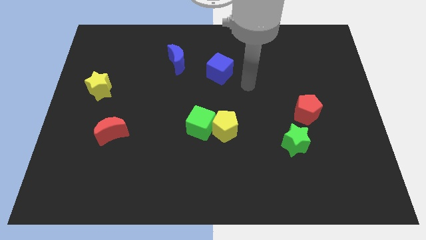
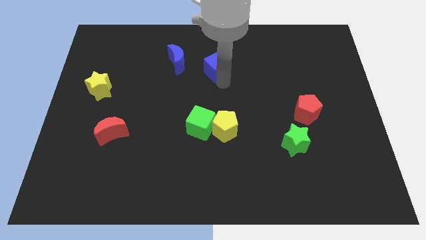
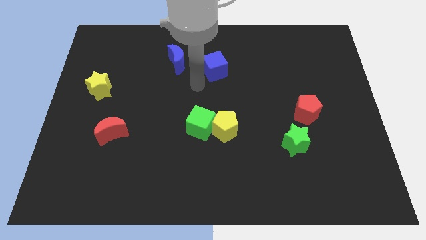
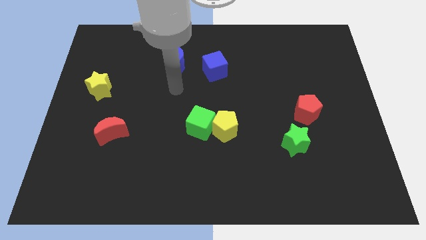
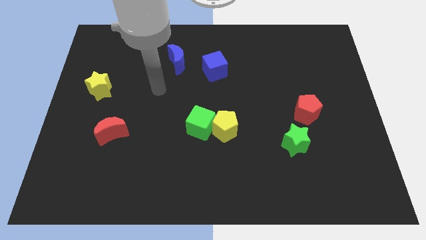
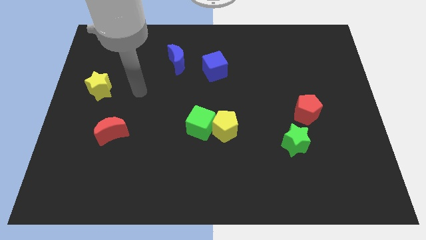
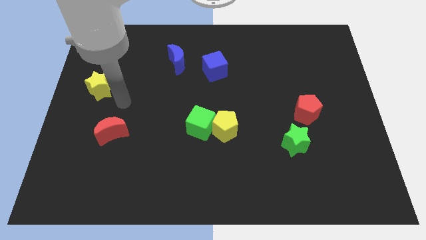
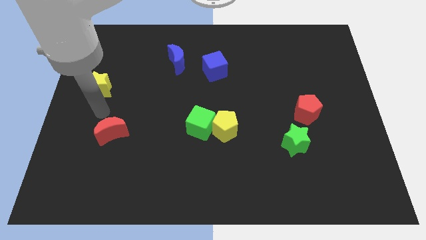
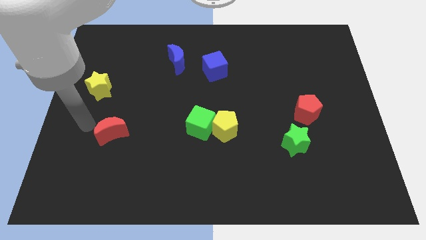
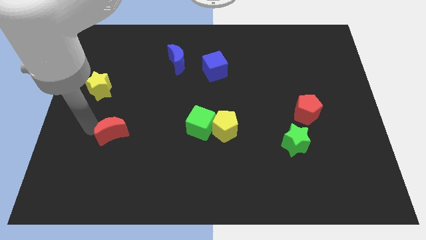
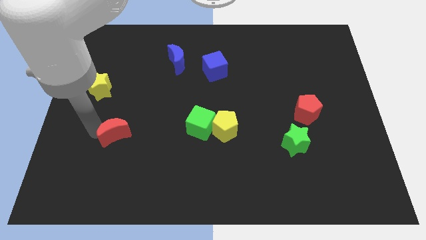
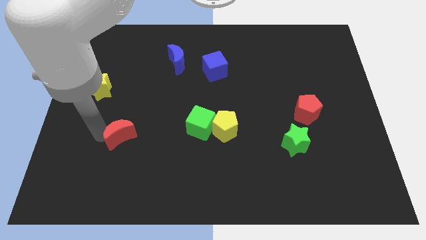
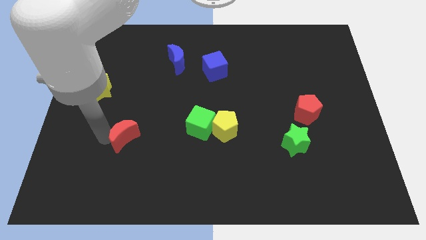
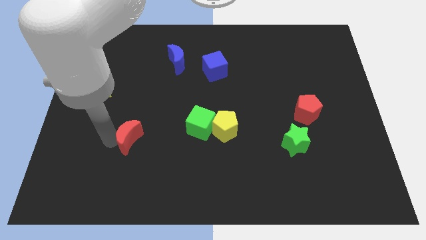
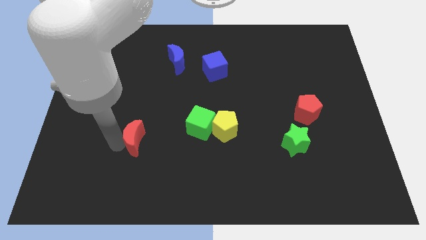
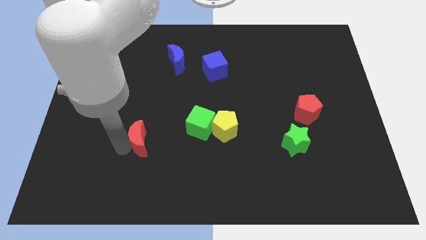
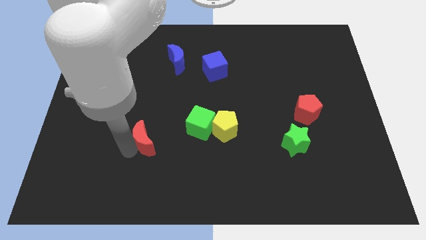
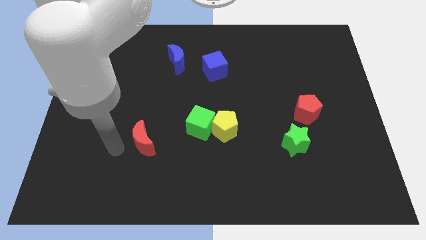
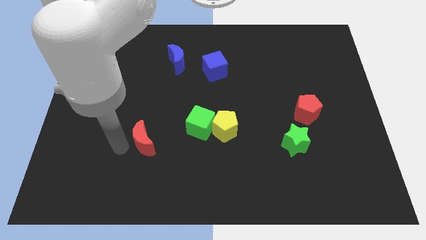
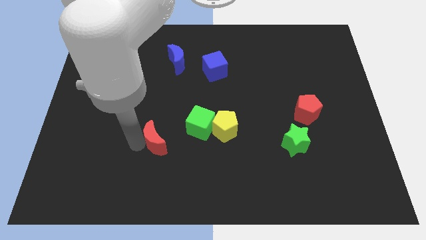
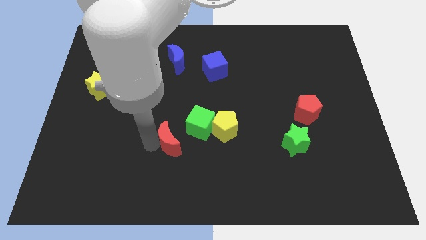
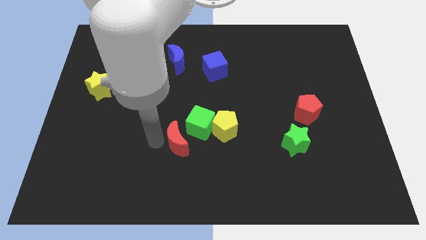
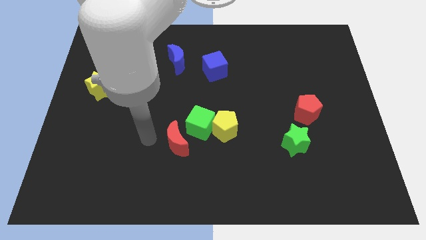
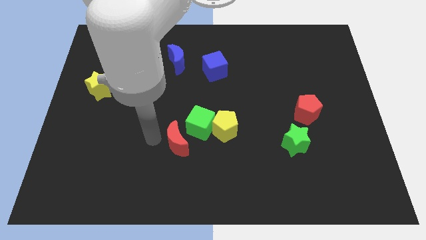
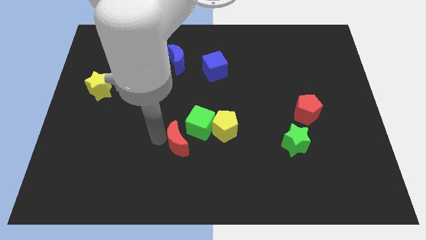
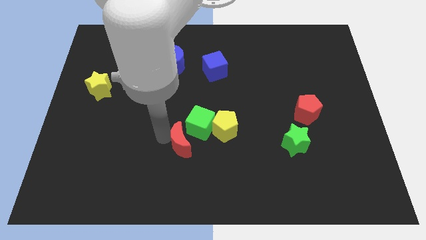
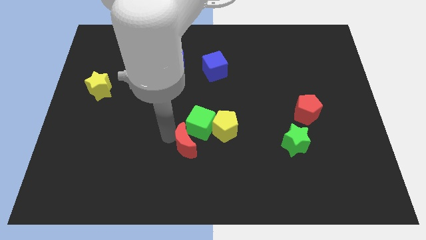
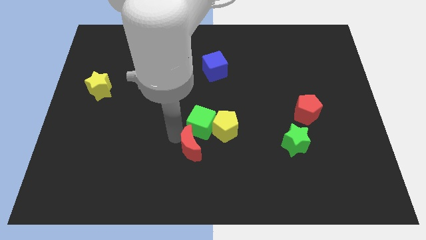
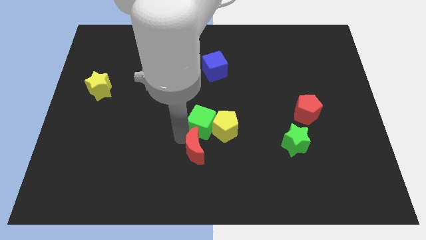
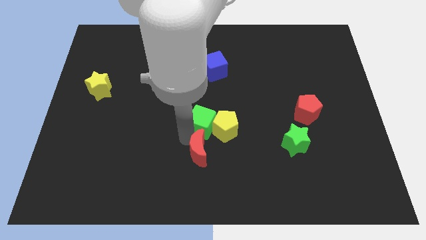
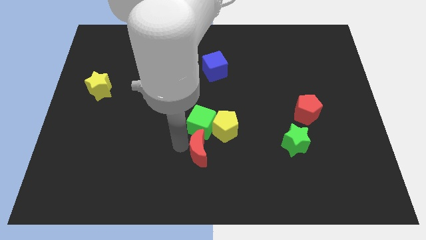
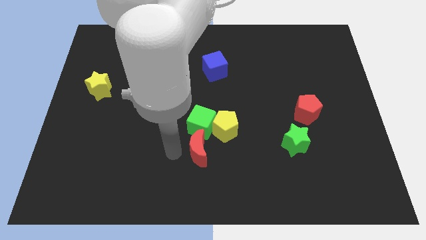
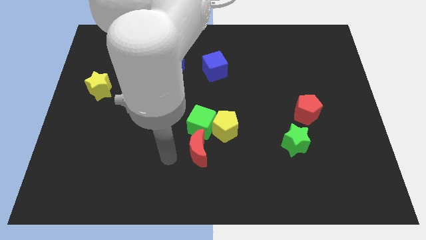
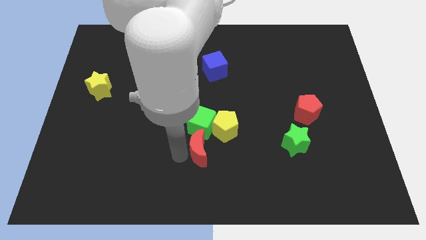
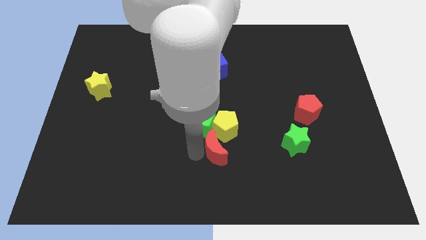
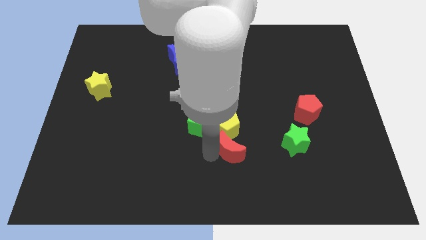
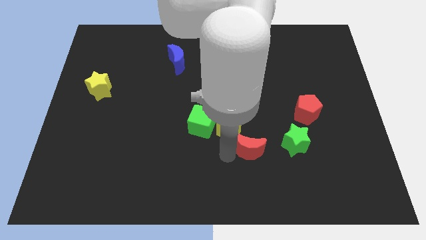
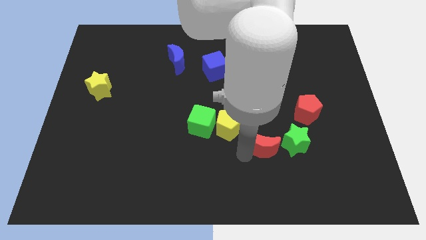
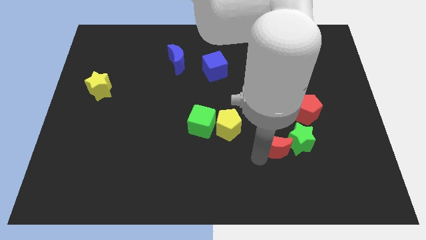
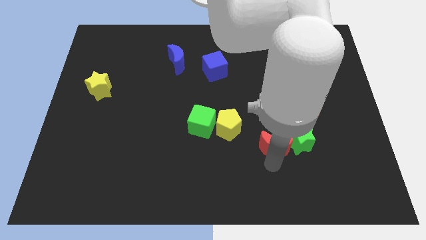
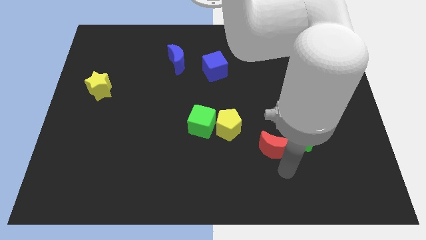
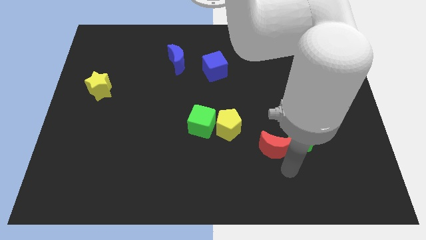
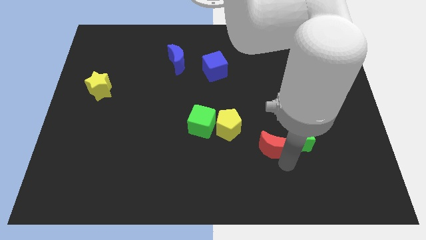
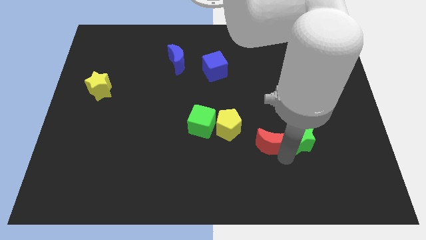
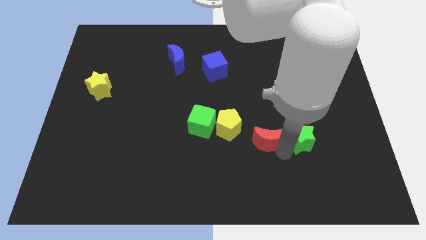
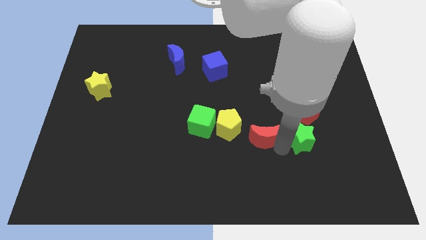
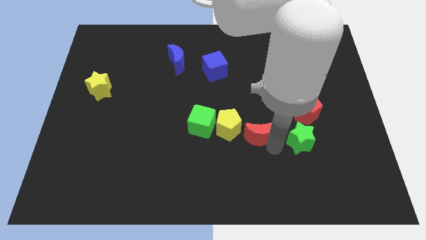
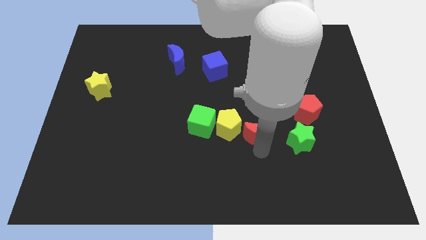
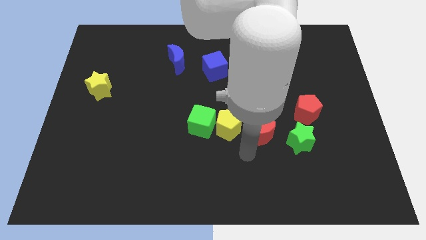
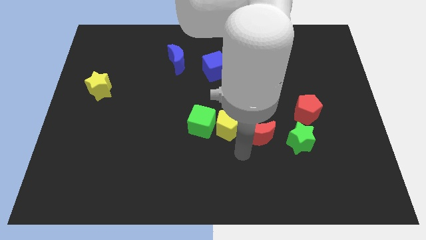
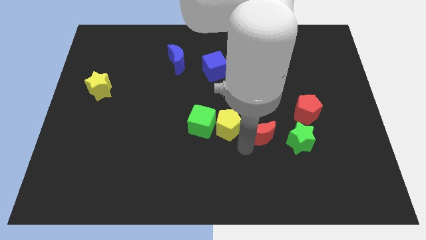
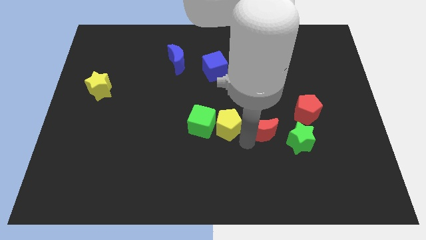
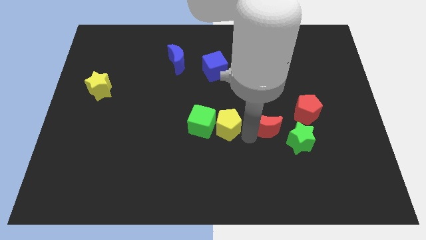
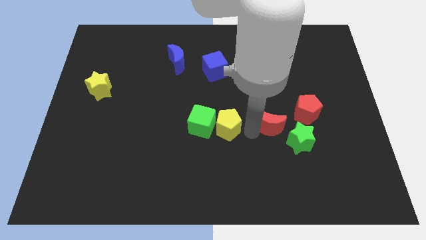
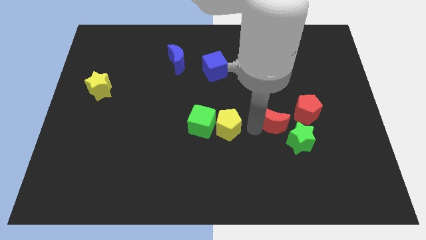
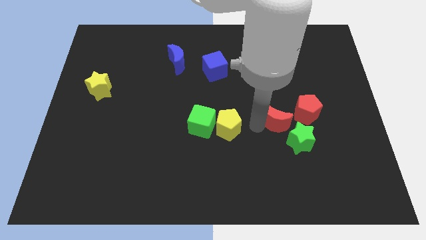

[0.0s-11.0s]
put the red moon to the top side of the green star
